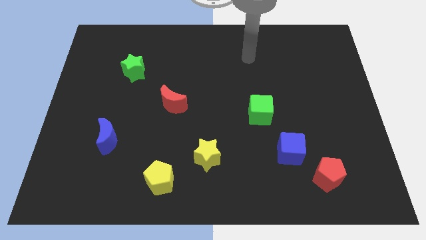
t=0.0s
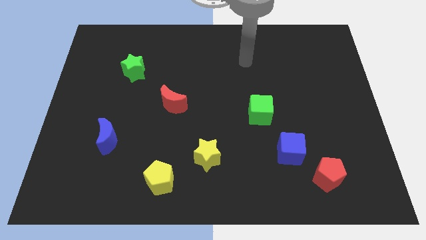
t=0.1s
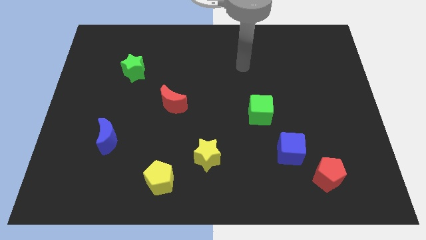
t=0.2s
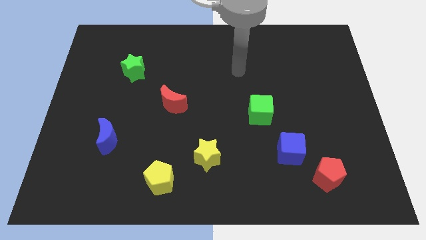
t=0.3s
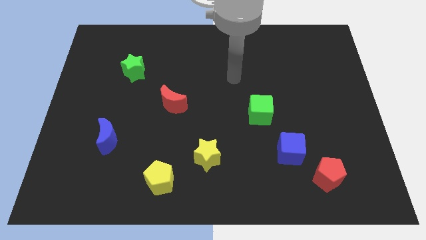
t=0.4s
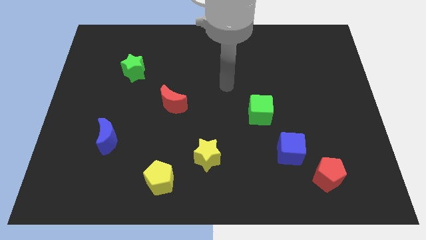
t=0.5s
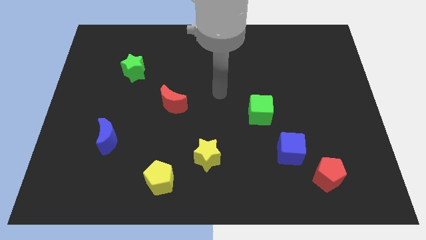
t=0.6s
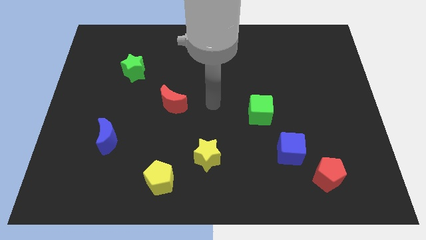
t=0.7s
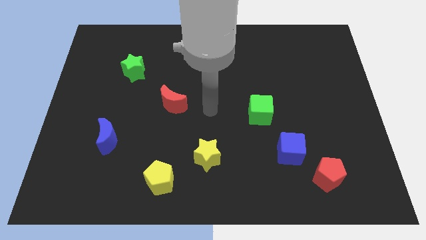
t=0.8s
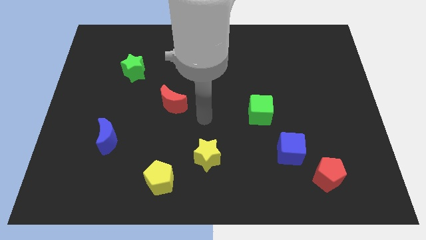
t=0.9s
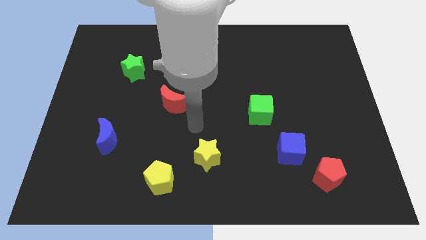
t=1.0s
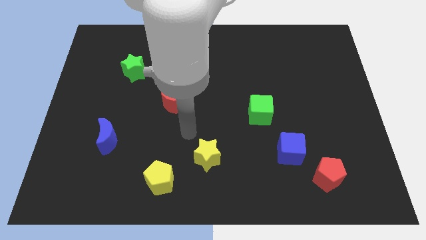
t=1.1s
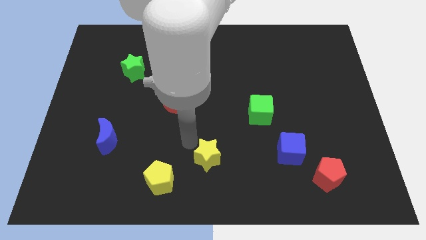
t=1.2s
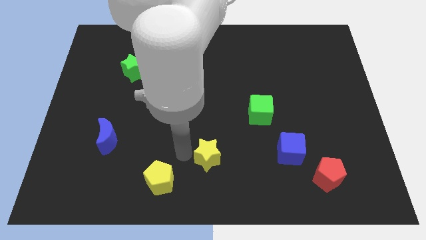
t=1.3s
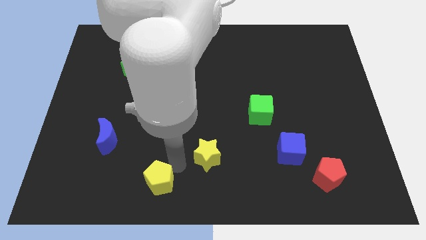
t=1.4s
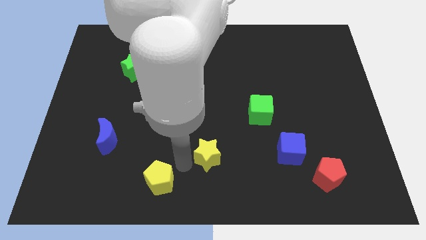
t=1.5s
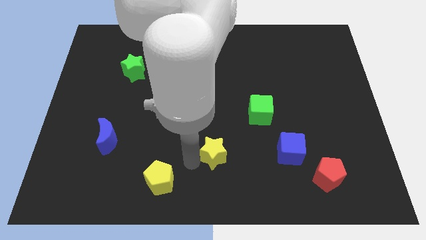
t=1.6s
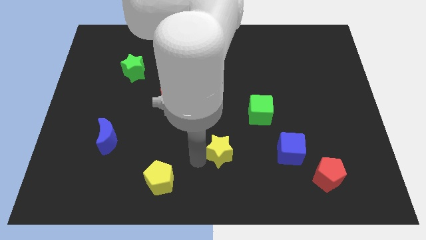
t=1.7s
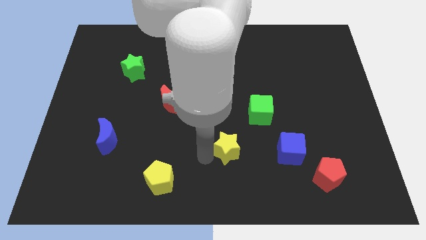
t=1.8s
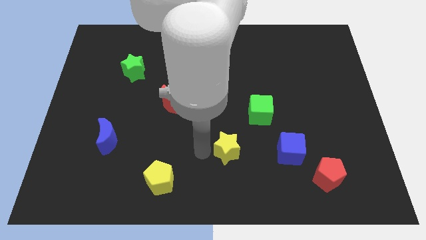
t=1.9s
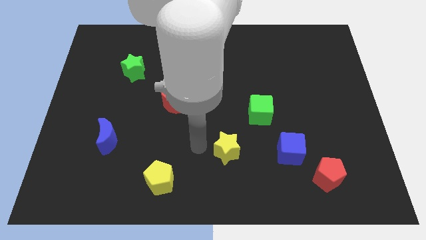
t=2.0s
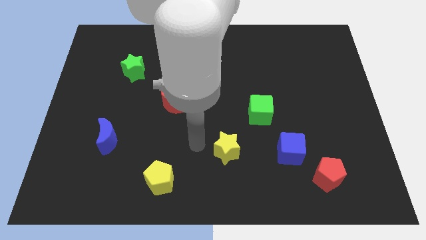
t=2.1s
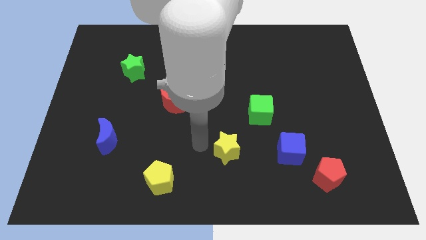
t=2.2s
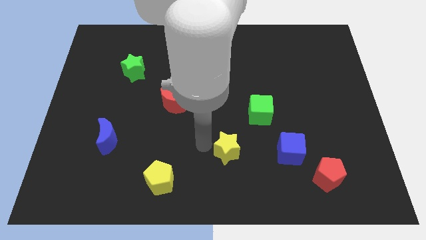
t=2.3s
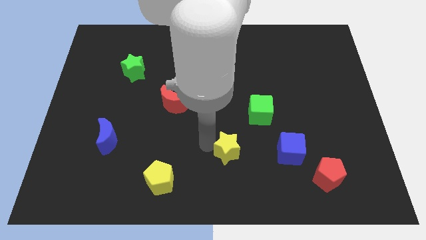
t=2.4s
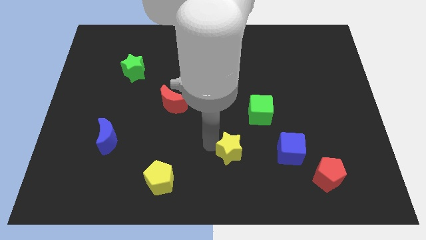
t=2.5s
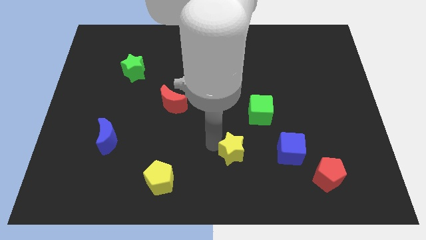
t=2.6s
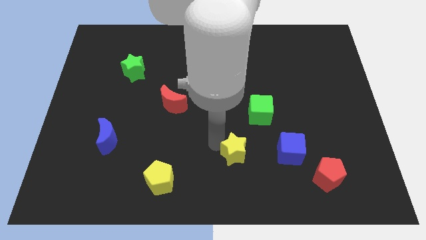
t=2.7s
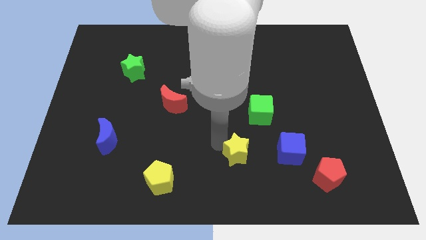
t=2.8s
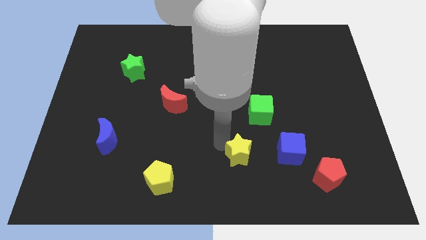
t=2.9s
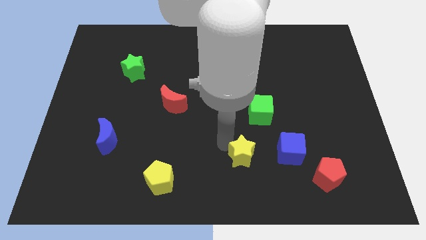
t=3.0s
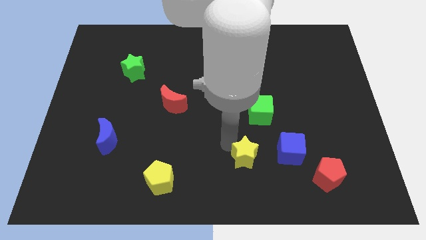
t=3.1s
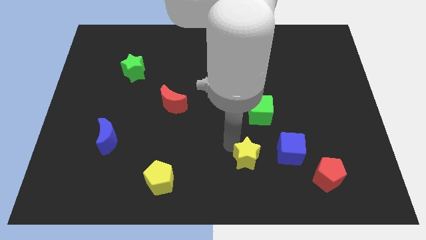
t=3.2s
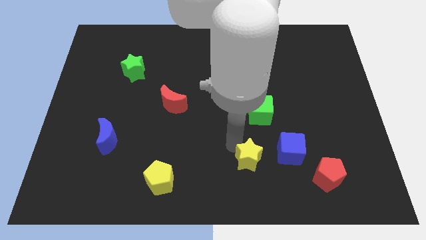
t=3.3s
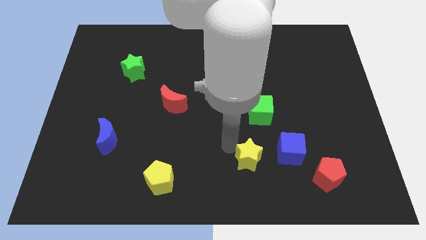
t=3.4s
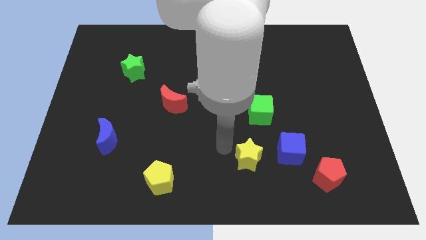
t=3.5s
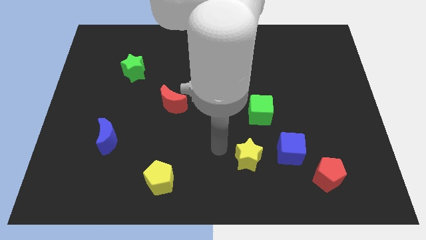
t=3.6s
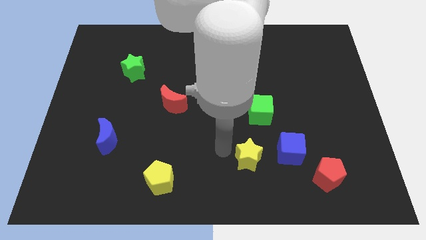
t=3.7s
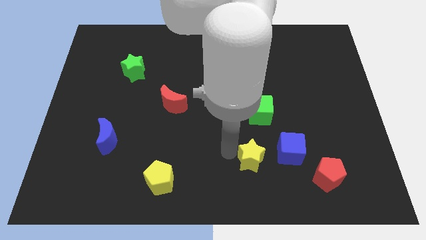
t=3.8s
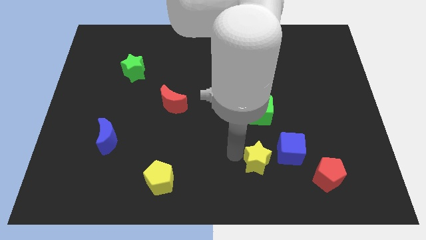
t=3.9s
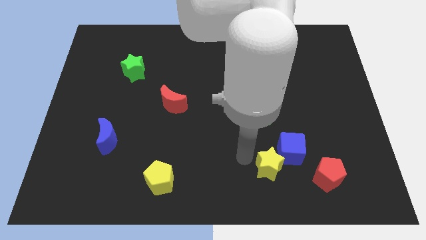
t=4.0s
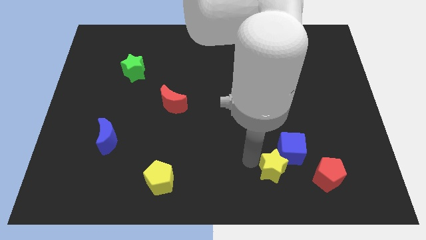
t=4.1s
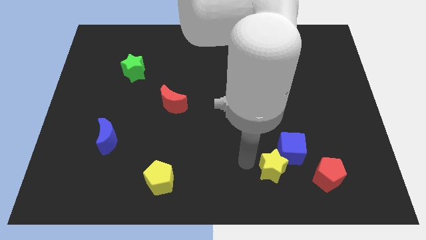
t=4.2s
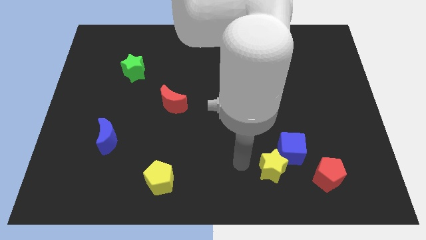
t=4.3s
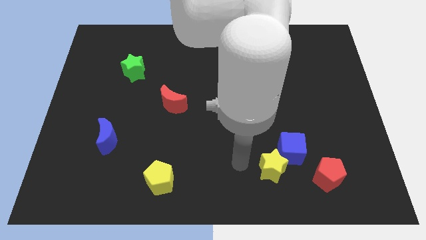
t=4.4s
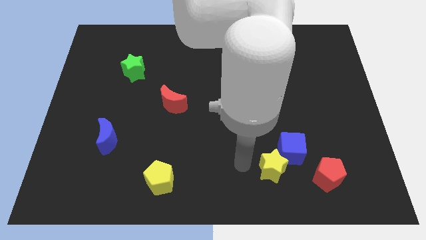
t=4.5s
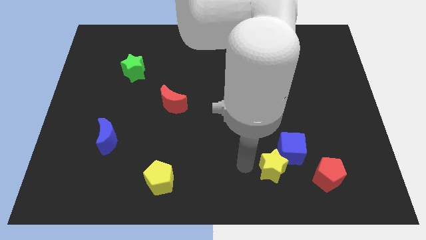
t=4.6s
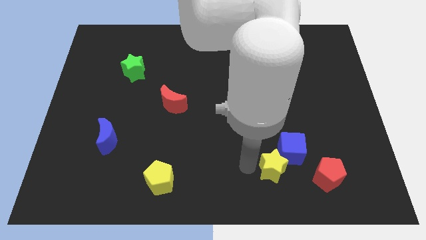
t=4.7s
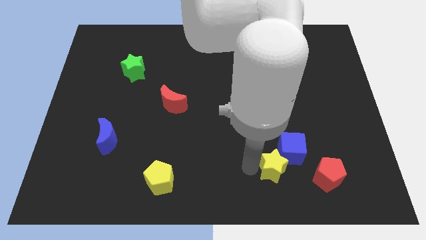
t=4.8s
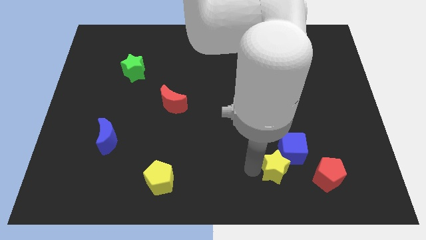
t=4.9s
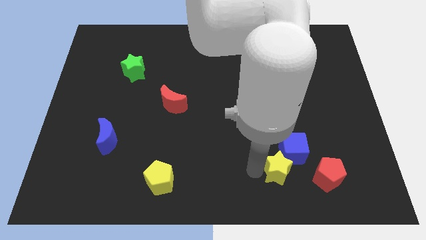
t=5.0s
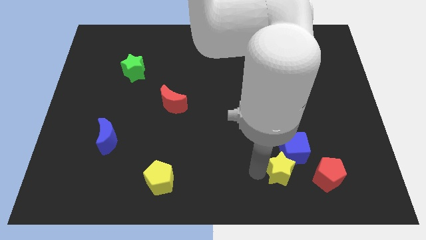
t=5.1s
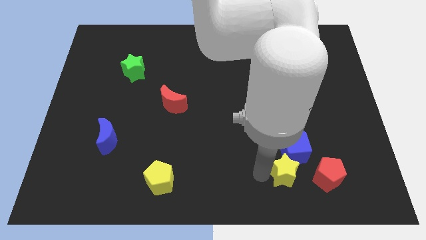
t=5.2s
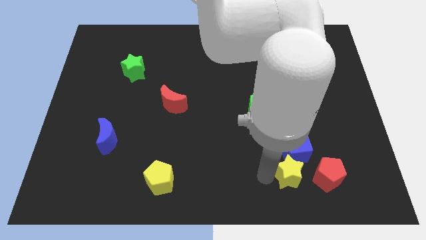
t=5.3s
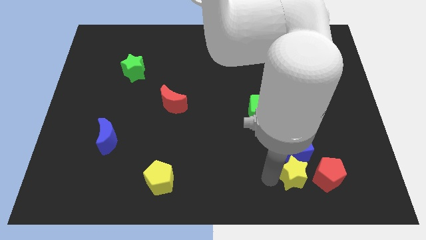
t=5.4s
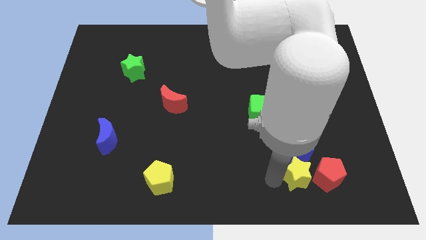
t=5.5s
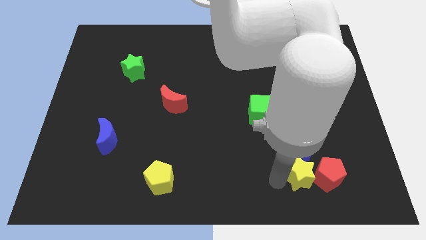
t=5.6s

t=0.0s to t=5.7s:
slide the yellow star to the red pentagon

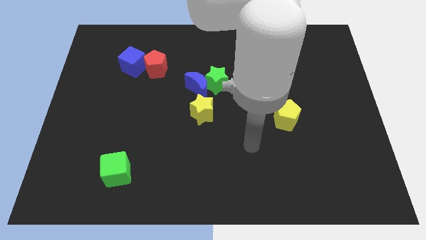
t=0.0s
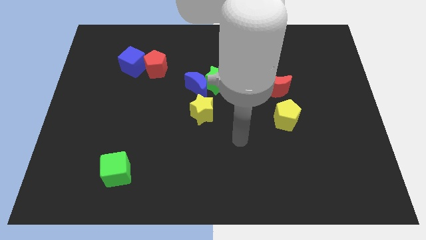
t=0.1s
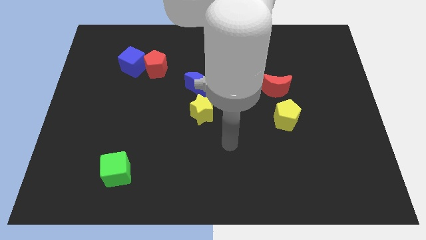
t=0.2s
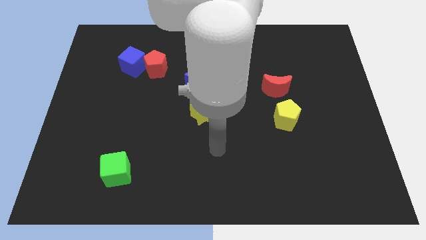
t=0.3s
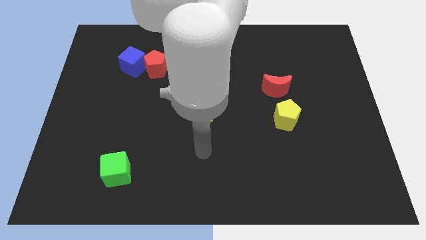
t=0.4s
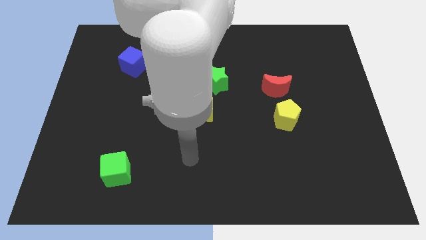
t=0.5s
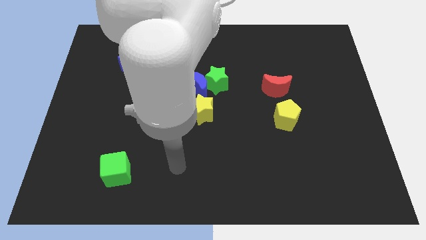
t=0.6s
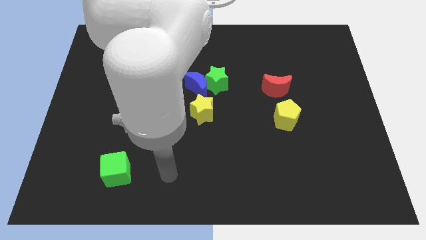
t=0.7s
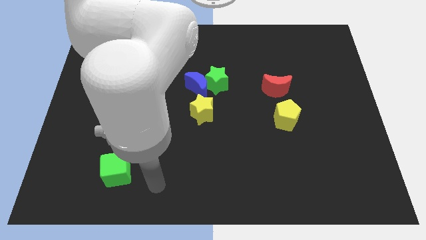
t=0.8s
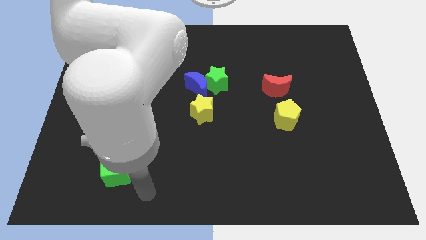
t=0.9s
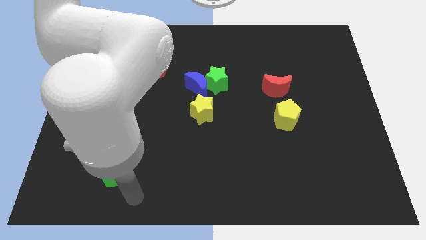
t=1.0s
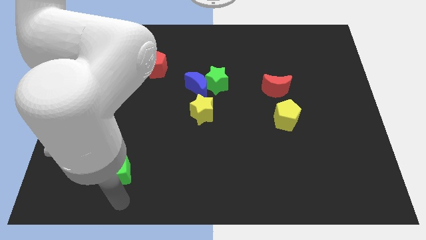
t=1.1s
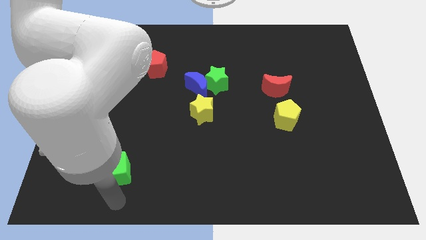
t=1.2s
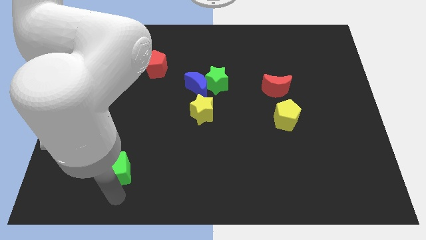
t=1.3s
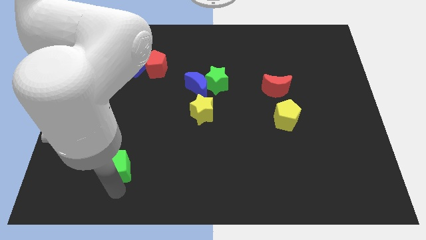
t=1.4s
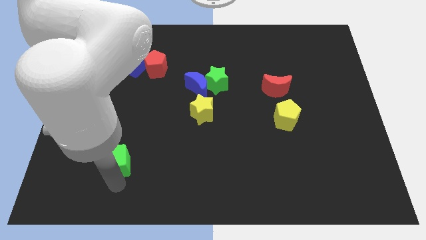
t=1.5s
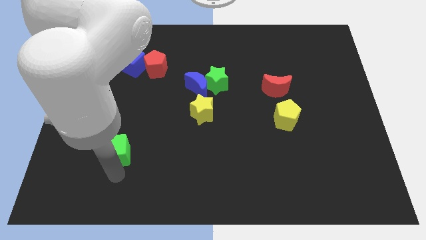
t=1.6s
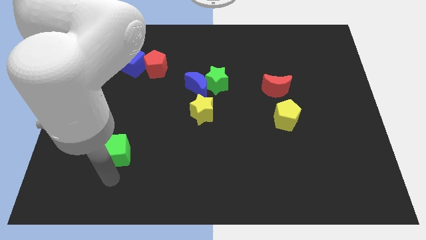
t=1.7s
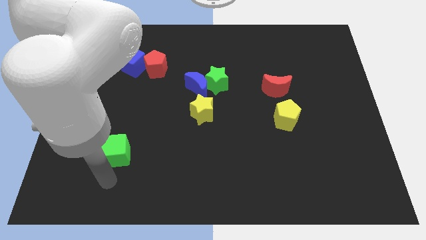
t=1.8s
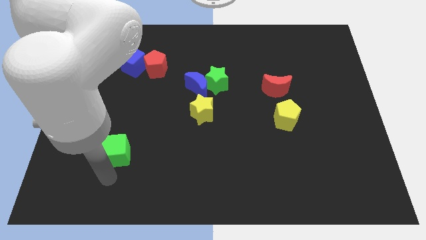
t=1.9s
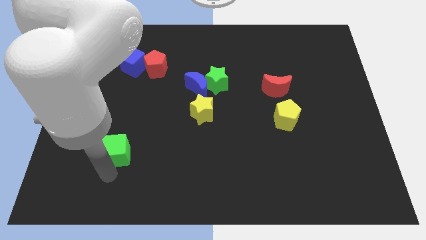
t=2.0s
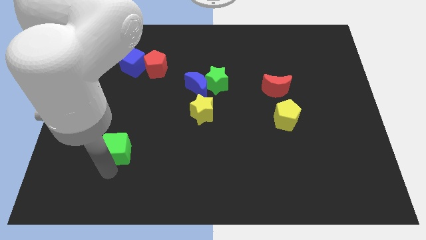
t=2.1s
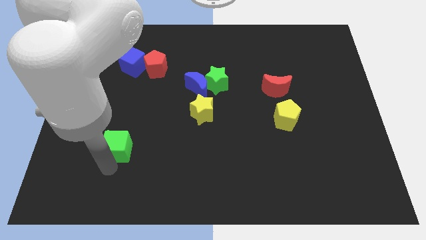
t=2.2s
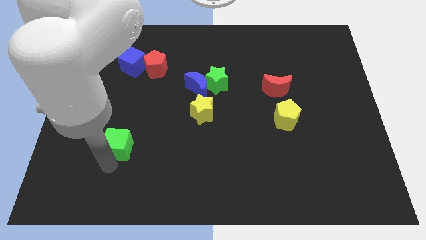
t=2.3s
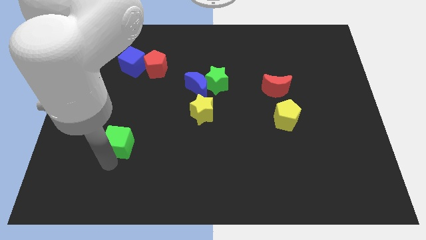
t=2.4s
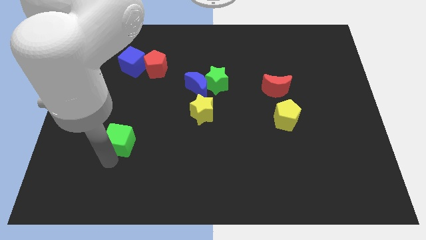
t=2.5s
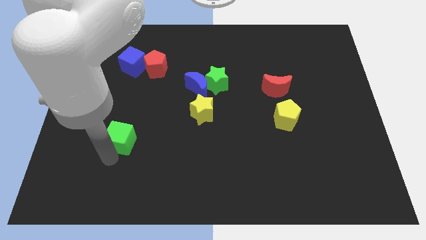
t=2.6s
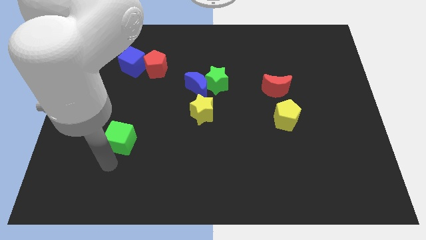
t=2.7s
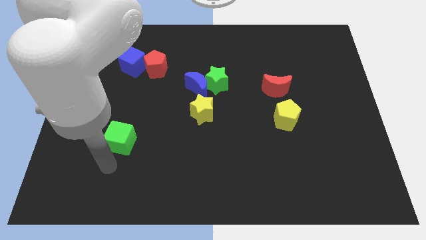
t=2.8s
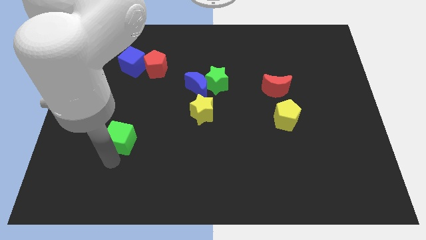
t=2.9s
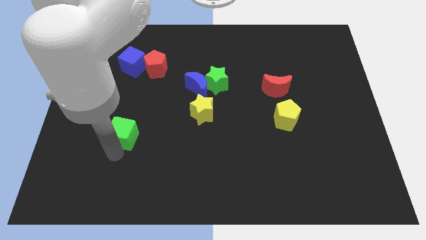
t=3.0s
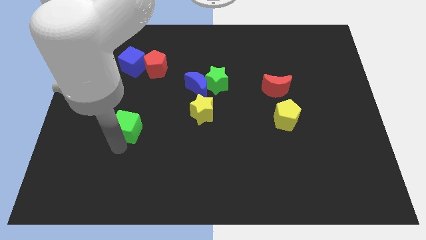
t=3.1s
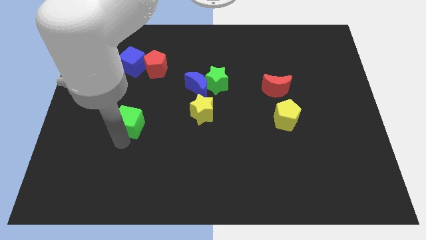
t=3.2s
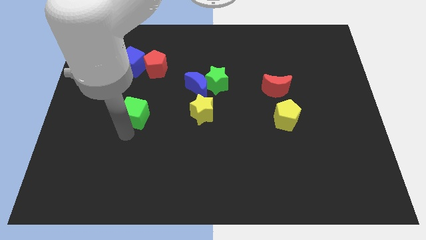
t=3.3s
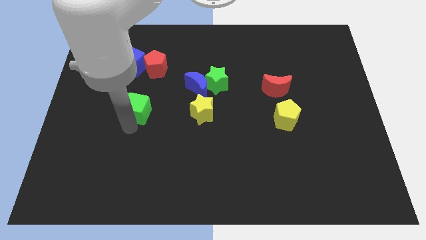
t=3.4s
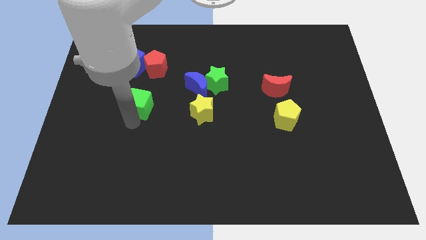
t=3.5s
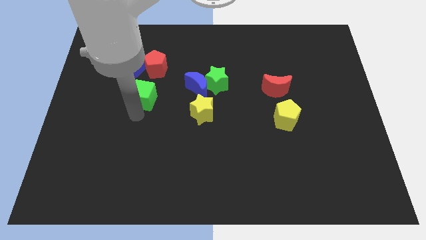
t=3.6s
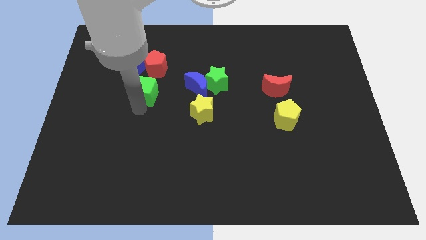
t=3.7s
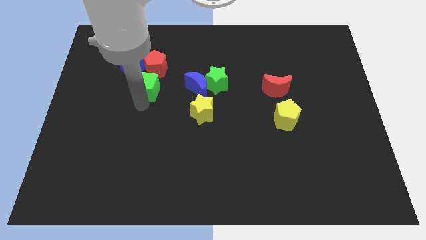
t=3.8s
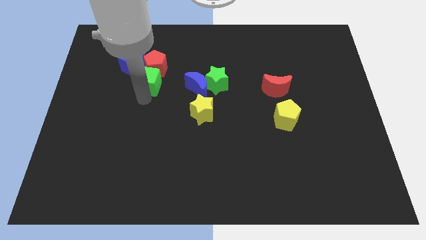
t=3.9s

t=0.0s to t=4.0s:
slide the green cube close to the red pentagon
